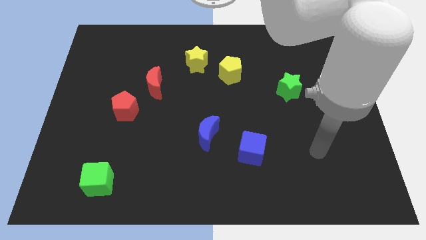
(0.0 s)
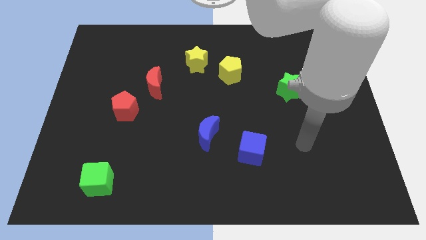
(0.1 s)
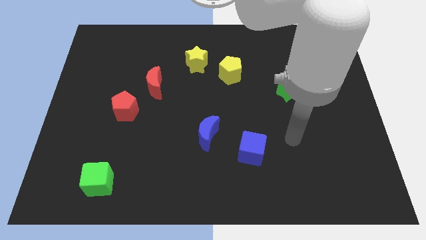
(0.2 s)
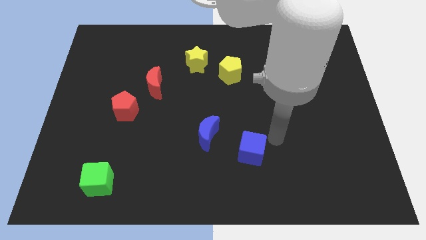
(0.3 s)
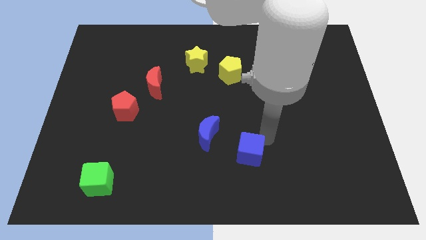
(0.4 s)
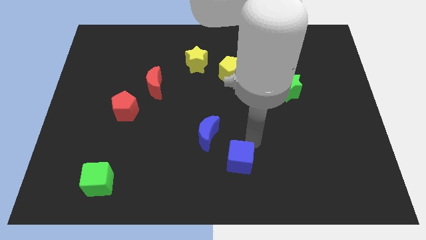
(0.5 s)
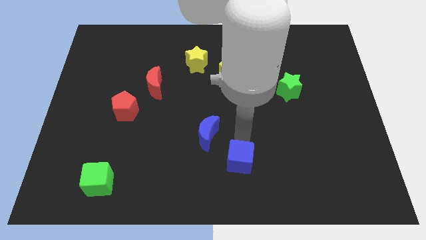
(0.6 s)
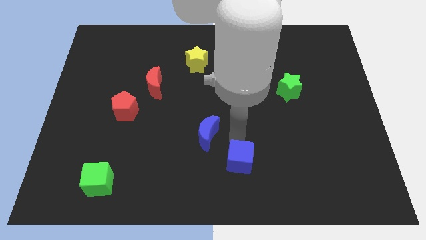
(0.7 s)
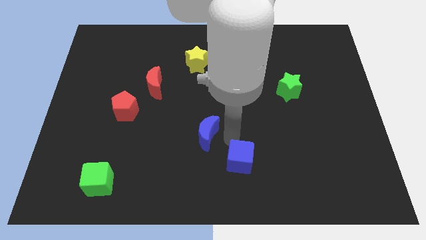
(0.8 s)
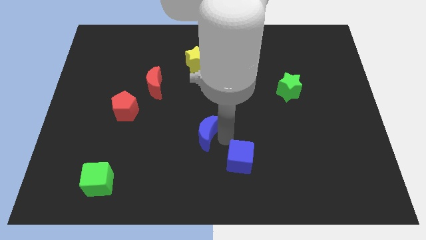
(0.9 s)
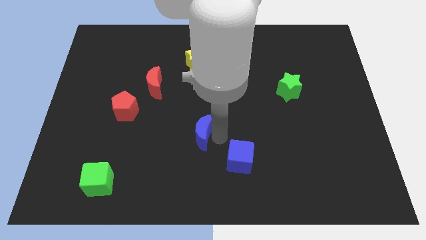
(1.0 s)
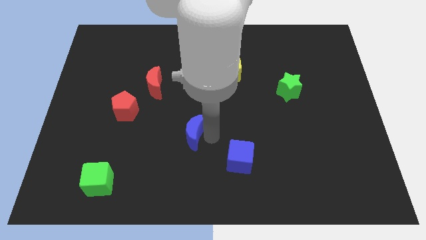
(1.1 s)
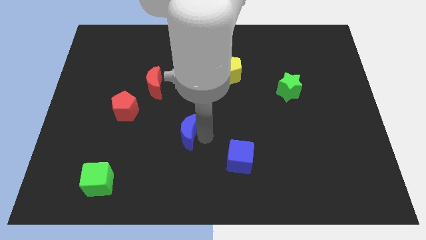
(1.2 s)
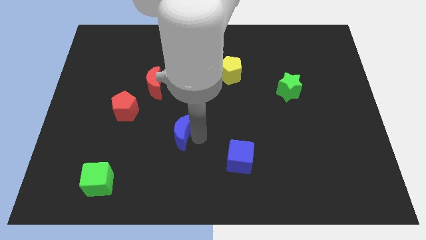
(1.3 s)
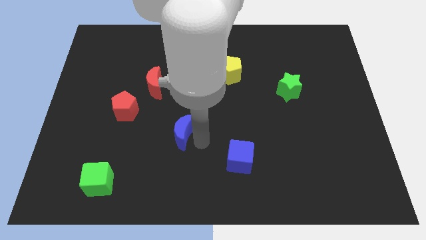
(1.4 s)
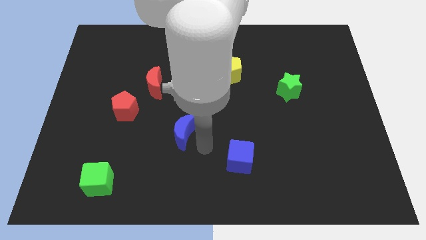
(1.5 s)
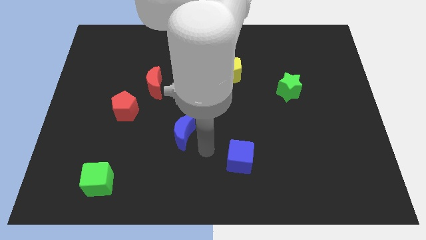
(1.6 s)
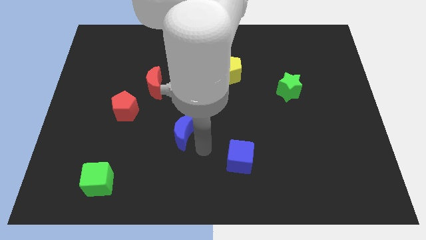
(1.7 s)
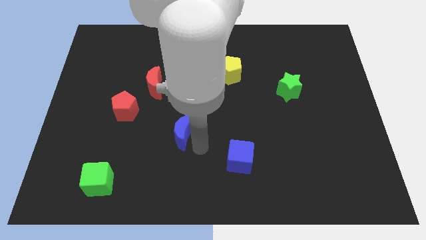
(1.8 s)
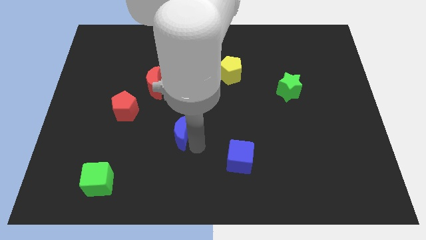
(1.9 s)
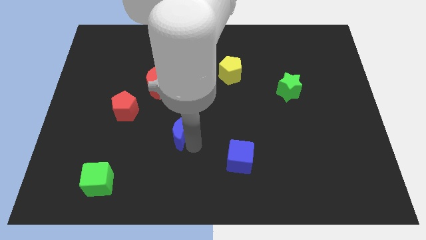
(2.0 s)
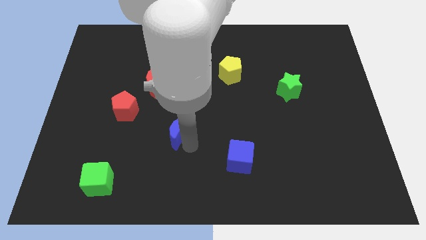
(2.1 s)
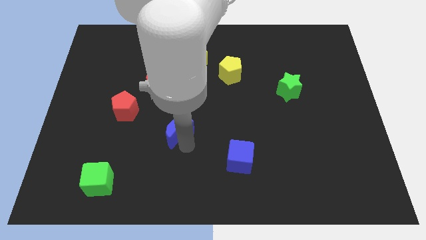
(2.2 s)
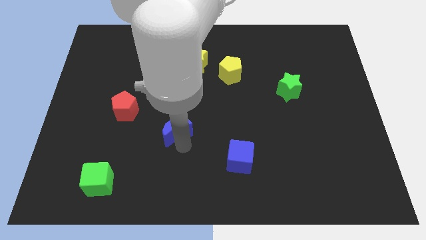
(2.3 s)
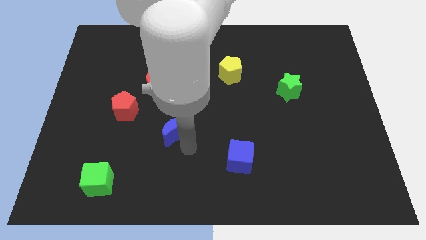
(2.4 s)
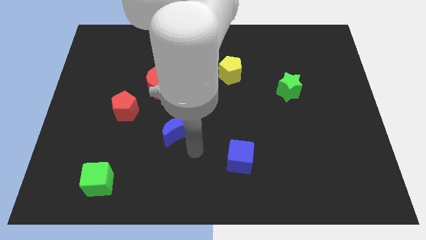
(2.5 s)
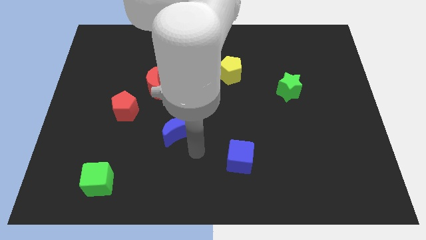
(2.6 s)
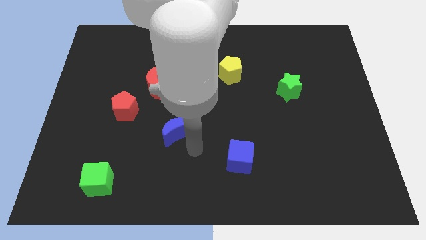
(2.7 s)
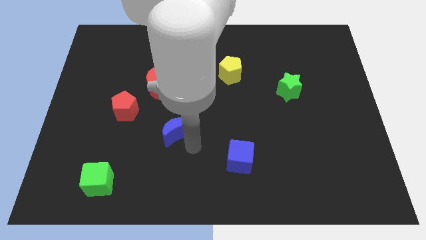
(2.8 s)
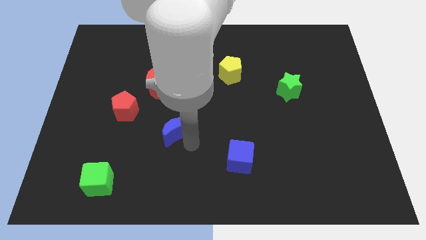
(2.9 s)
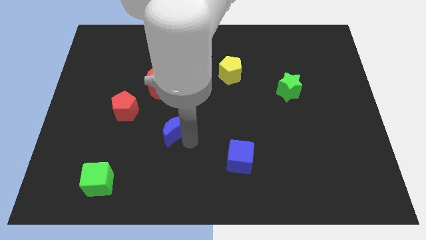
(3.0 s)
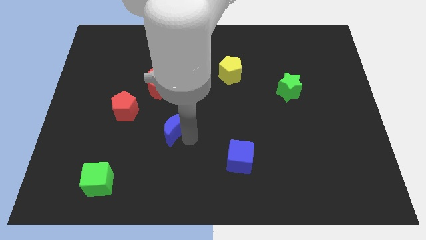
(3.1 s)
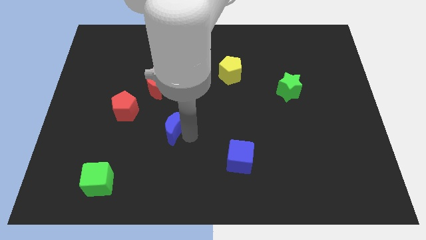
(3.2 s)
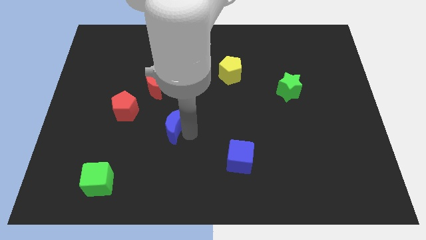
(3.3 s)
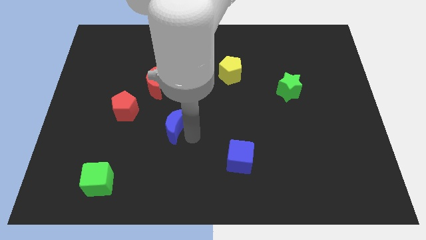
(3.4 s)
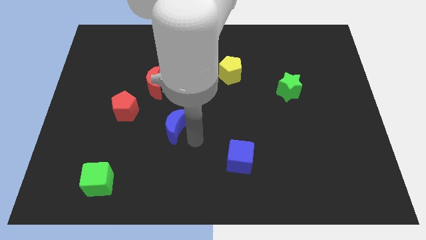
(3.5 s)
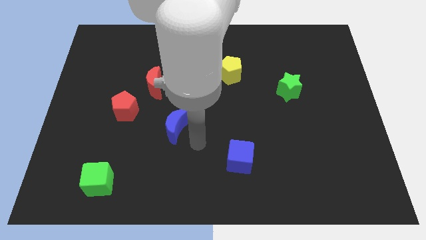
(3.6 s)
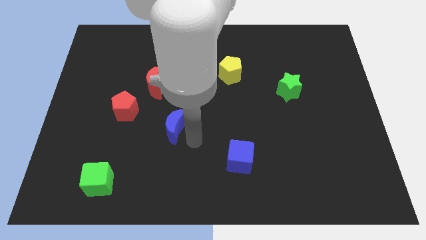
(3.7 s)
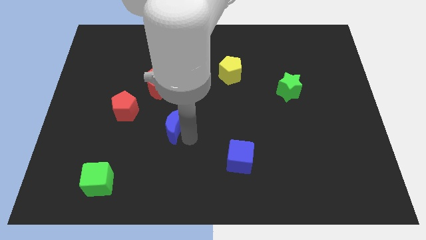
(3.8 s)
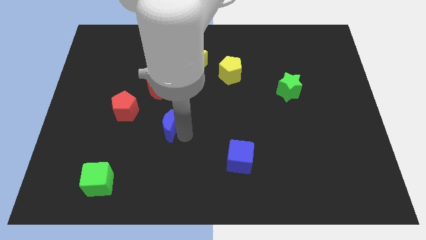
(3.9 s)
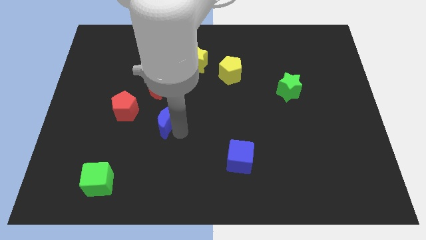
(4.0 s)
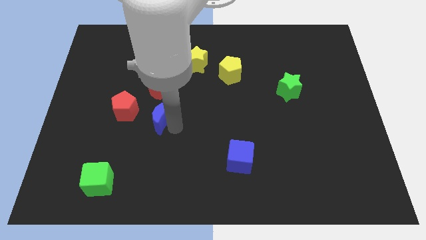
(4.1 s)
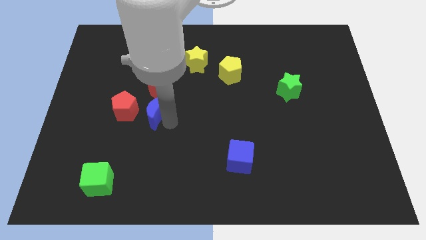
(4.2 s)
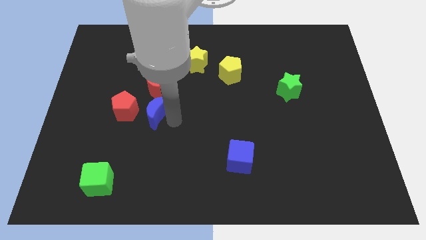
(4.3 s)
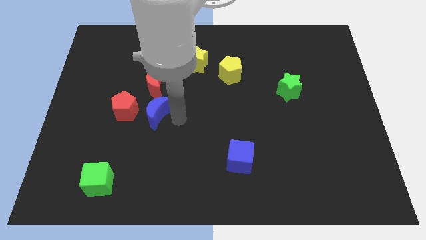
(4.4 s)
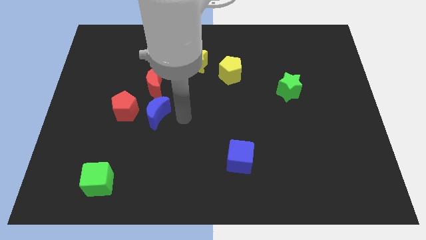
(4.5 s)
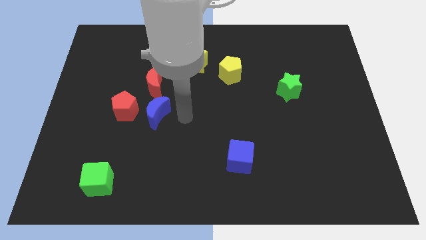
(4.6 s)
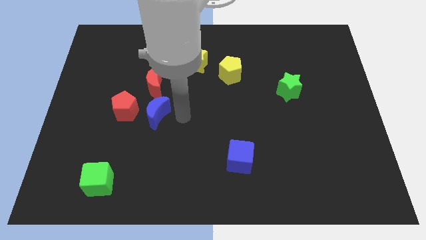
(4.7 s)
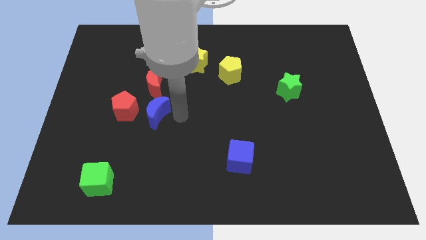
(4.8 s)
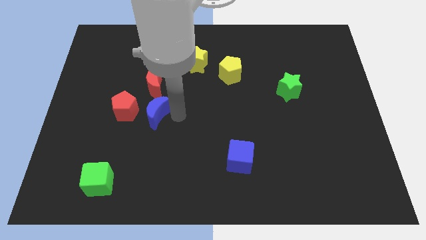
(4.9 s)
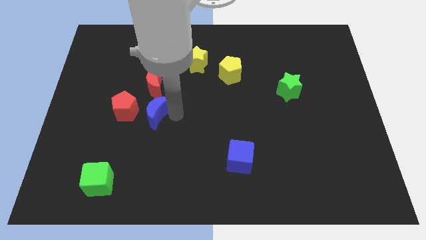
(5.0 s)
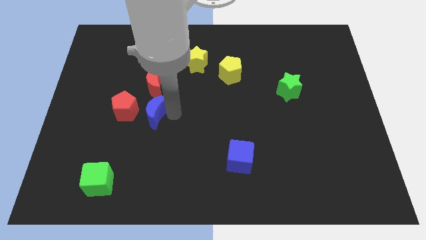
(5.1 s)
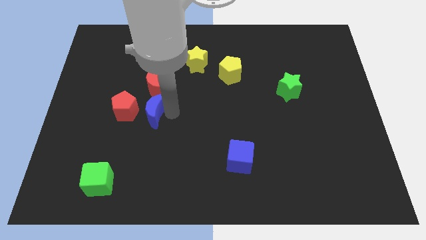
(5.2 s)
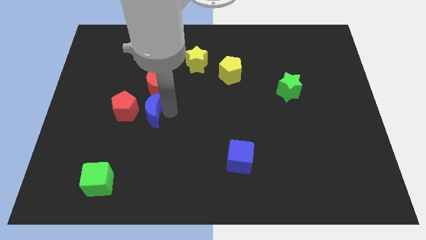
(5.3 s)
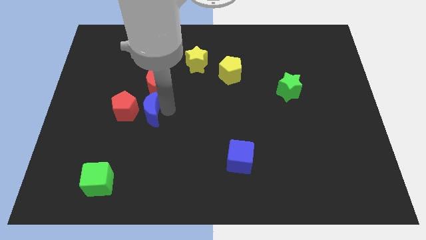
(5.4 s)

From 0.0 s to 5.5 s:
put the blue moon towards the red pentagon

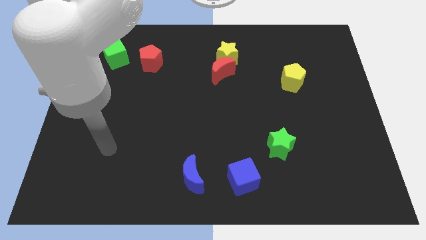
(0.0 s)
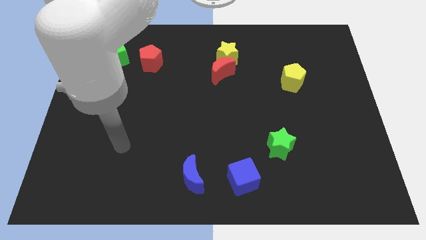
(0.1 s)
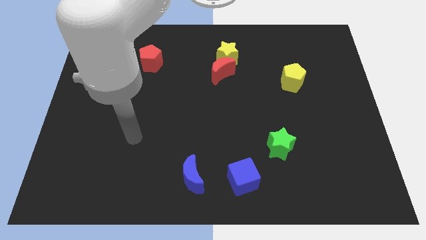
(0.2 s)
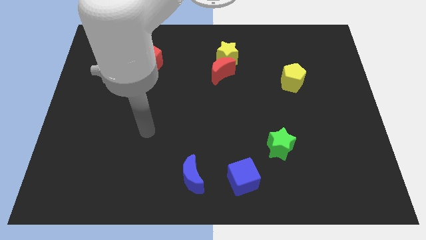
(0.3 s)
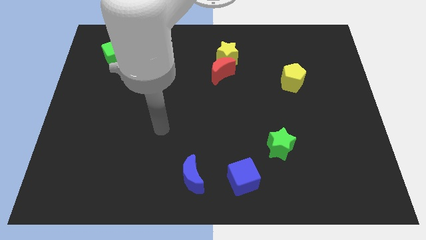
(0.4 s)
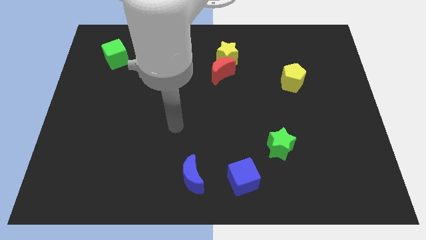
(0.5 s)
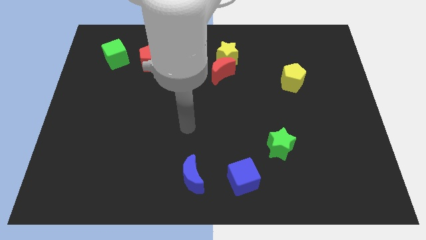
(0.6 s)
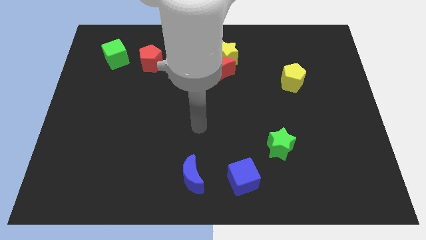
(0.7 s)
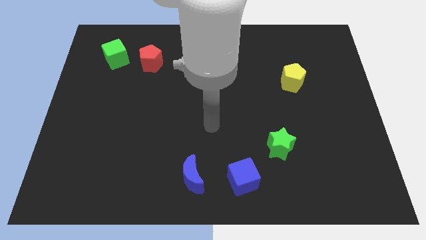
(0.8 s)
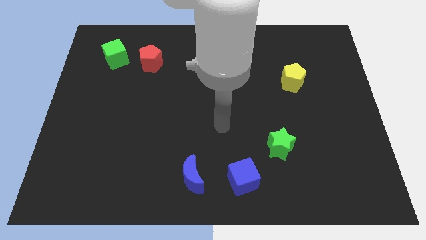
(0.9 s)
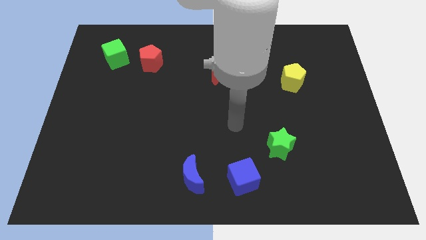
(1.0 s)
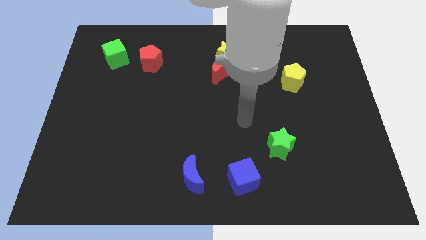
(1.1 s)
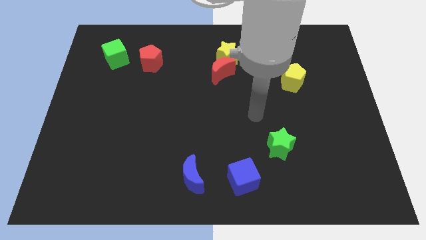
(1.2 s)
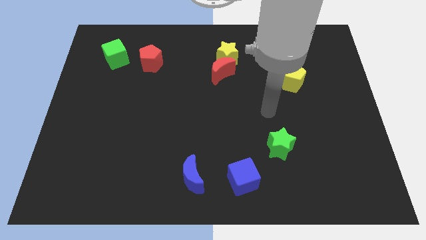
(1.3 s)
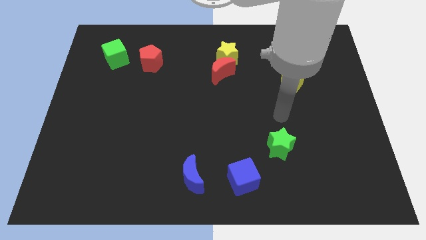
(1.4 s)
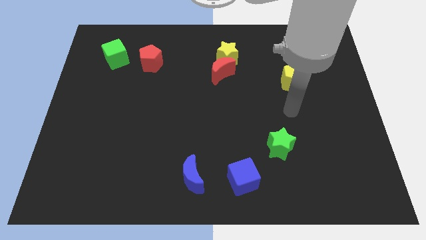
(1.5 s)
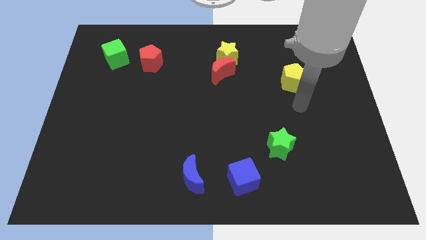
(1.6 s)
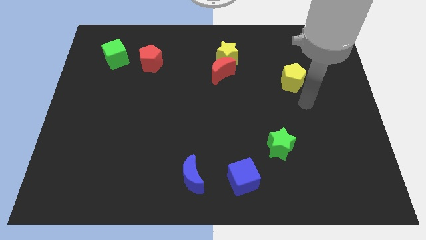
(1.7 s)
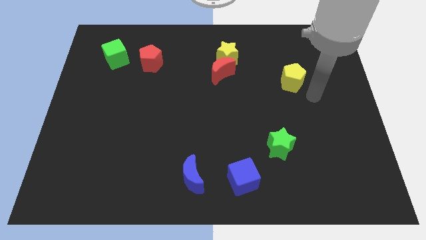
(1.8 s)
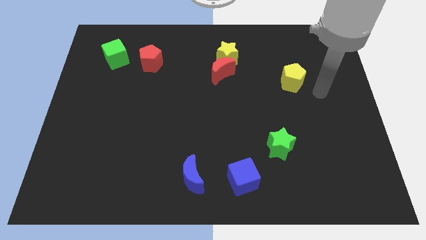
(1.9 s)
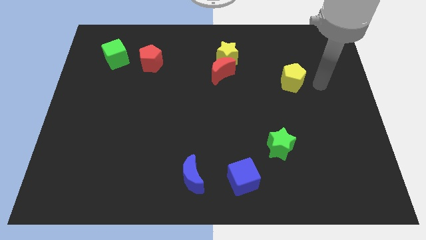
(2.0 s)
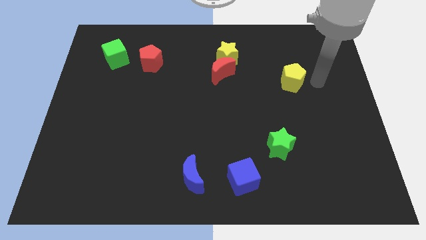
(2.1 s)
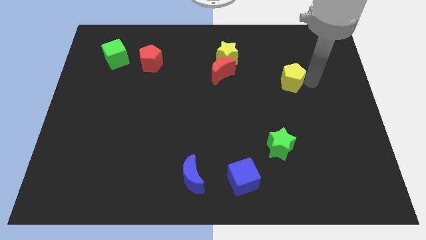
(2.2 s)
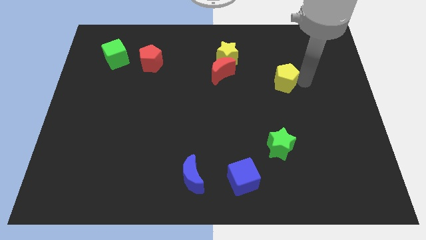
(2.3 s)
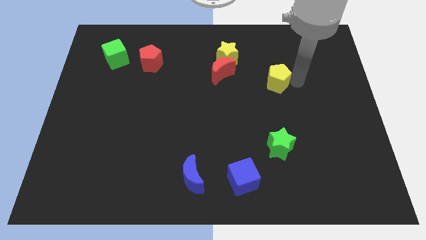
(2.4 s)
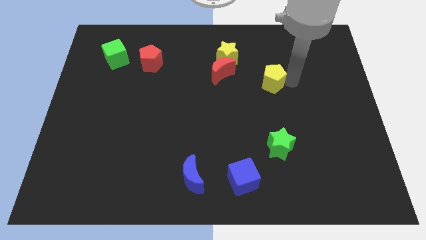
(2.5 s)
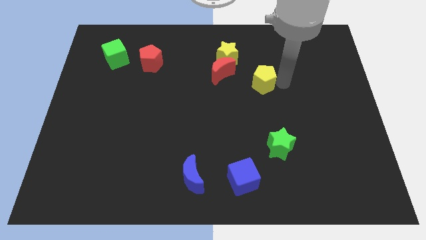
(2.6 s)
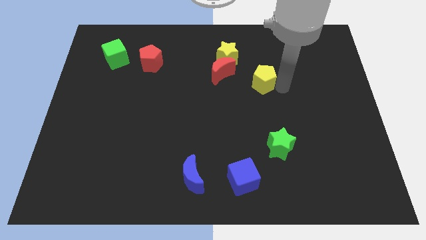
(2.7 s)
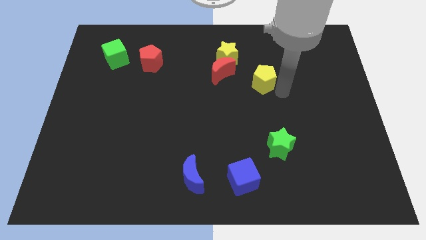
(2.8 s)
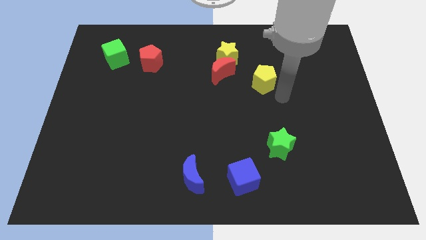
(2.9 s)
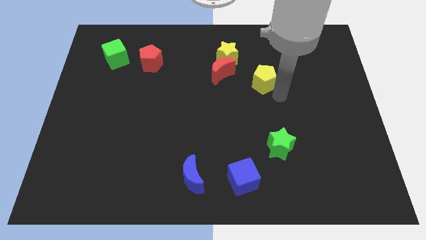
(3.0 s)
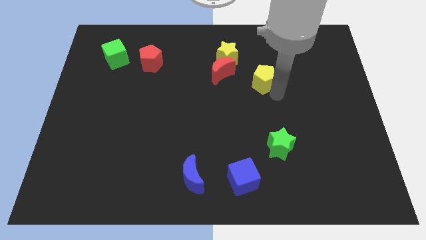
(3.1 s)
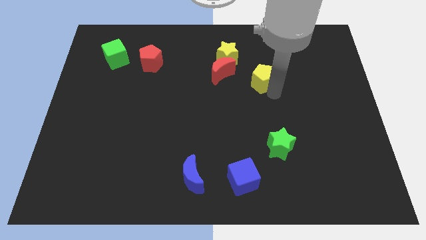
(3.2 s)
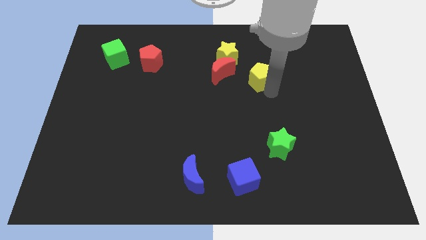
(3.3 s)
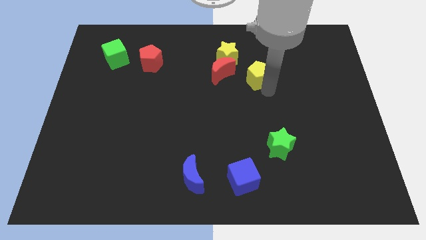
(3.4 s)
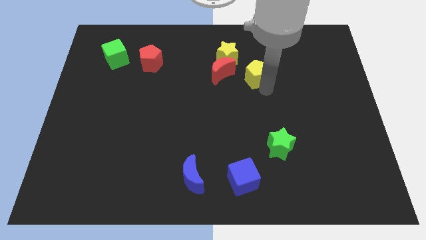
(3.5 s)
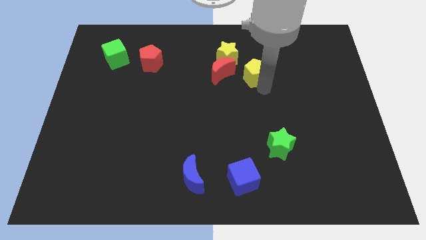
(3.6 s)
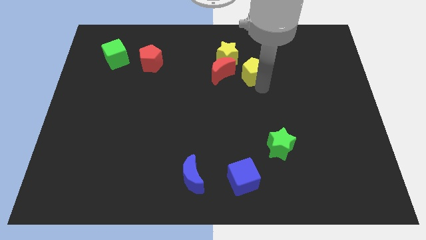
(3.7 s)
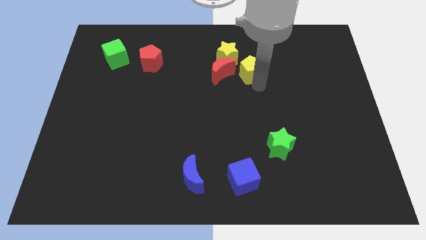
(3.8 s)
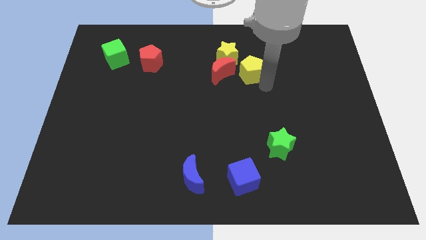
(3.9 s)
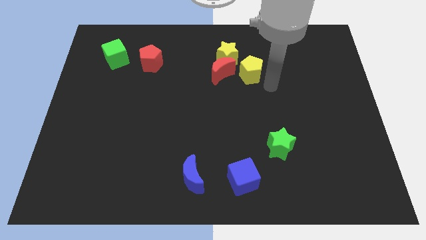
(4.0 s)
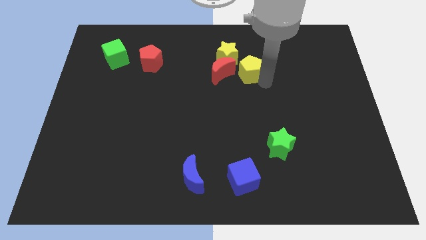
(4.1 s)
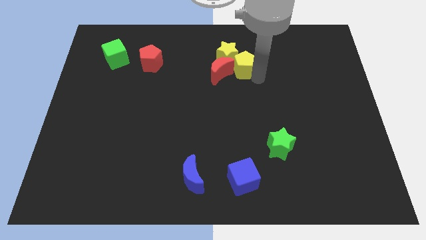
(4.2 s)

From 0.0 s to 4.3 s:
slide the yellow pentagon to the yellow star
